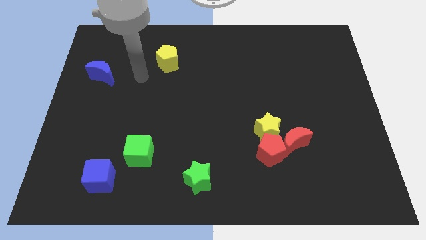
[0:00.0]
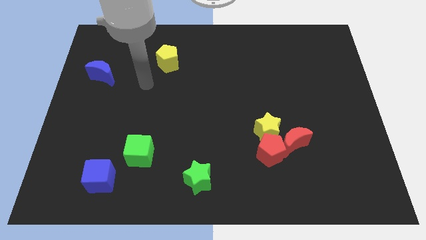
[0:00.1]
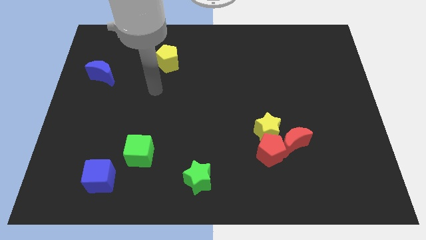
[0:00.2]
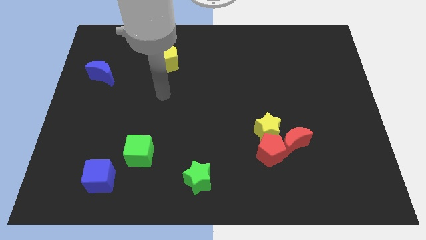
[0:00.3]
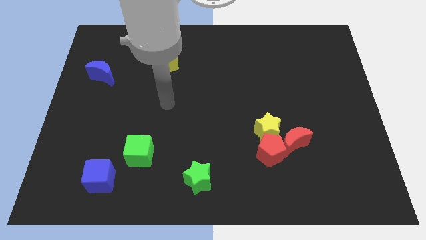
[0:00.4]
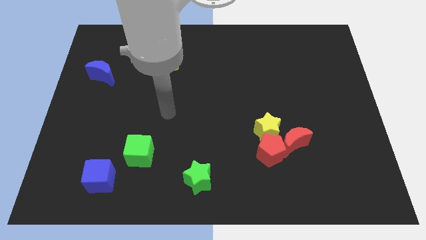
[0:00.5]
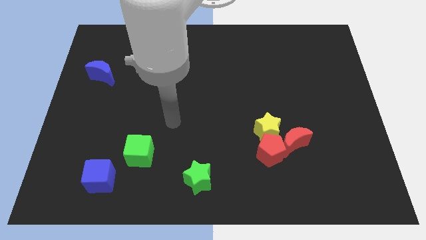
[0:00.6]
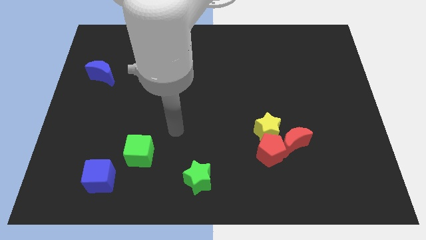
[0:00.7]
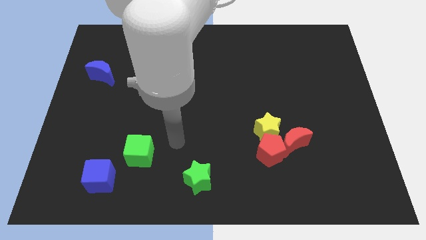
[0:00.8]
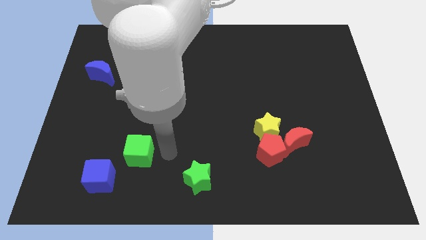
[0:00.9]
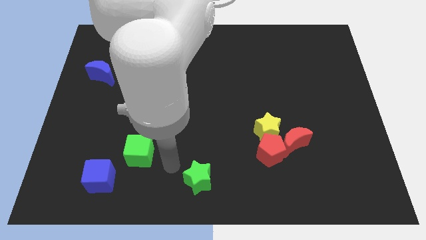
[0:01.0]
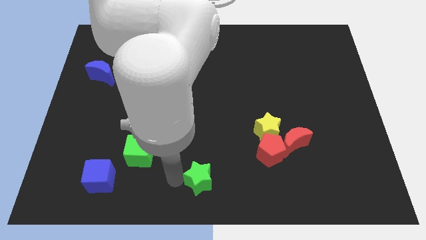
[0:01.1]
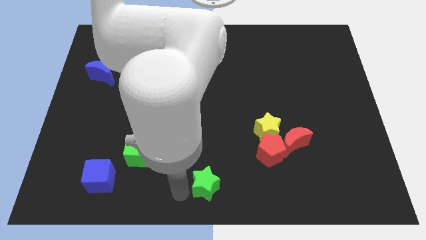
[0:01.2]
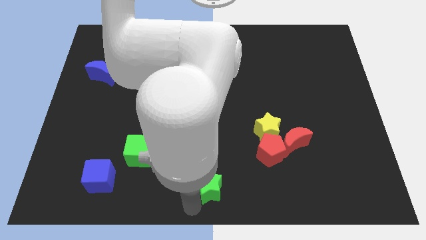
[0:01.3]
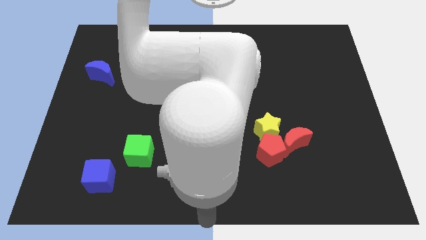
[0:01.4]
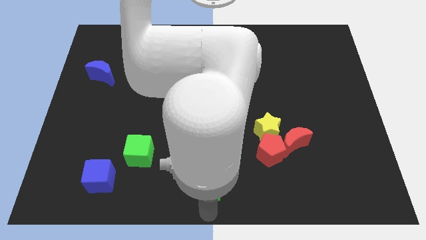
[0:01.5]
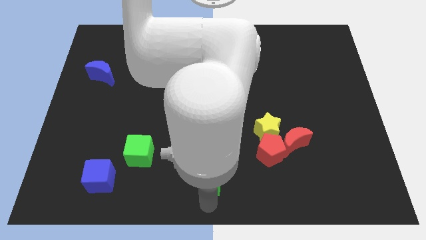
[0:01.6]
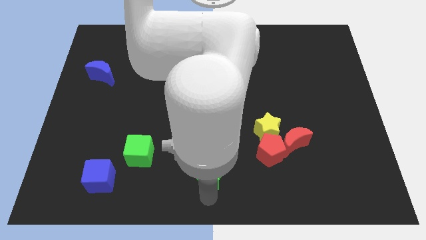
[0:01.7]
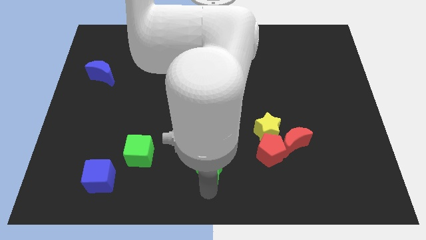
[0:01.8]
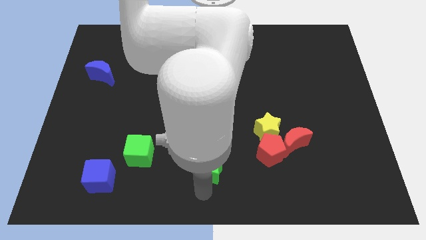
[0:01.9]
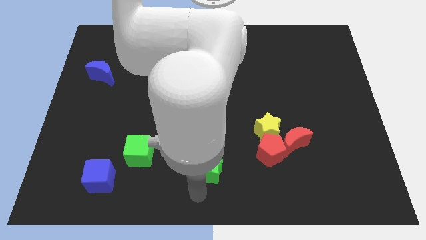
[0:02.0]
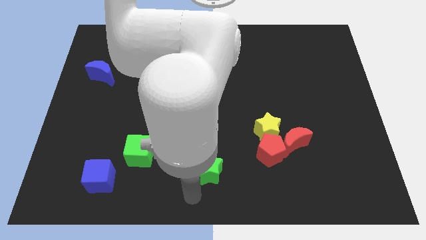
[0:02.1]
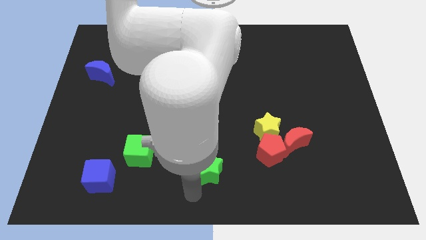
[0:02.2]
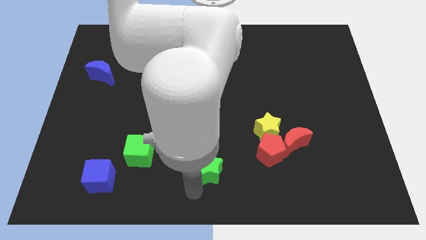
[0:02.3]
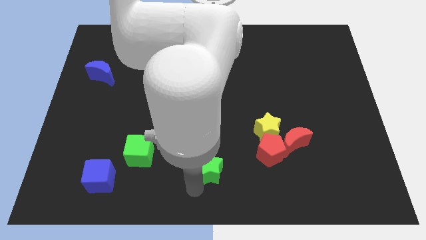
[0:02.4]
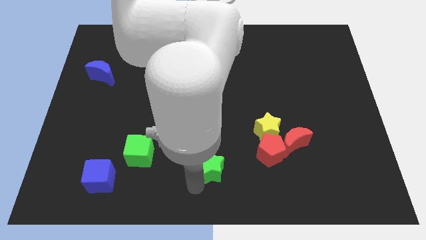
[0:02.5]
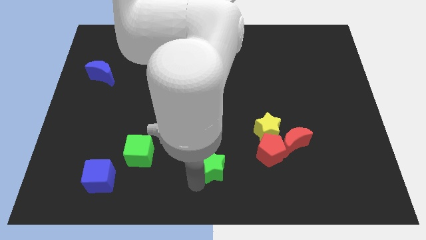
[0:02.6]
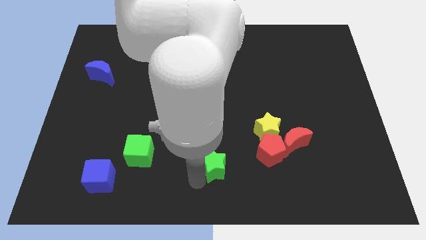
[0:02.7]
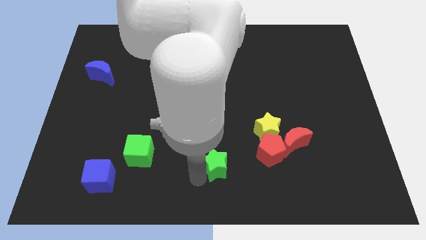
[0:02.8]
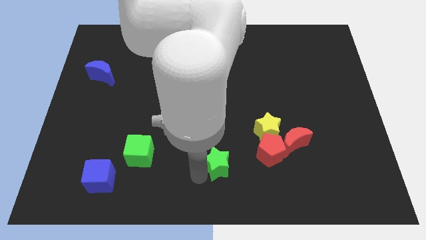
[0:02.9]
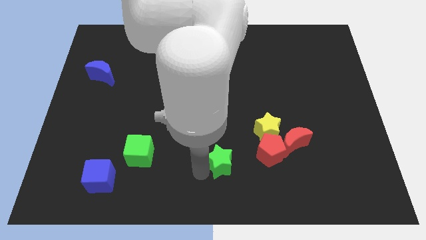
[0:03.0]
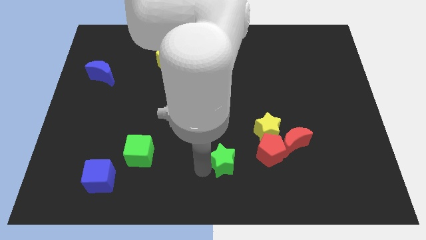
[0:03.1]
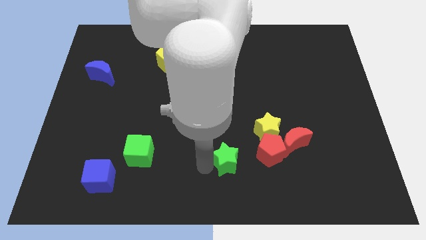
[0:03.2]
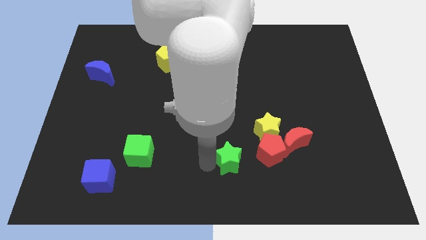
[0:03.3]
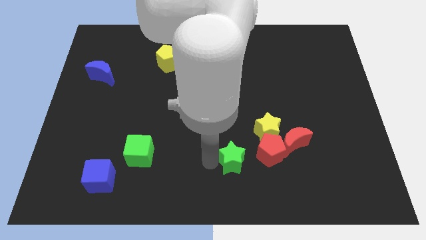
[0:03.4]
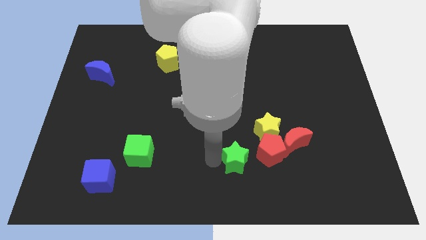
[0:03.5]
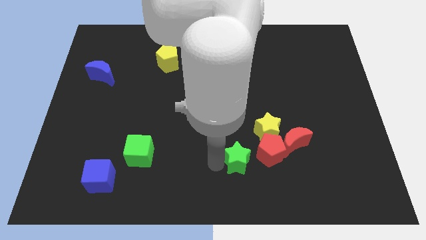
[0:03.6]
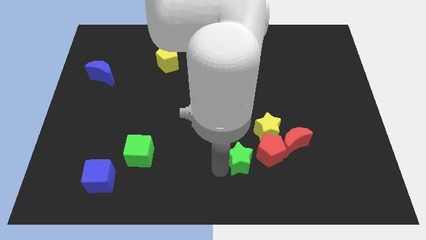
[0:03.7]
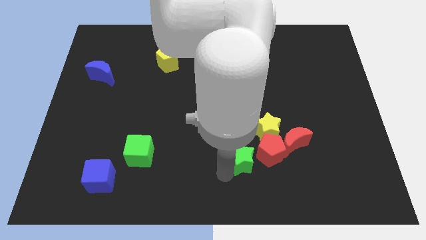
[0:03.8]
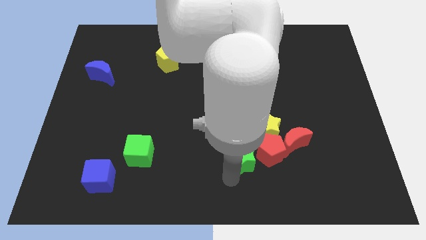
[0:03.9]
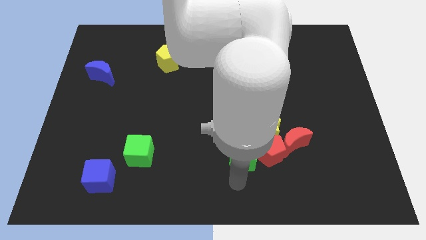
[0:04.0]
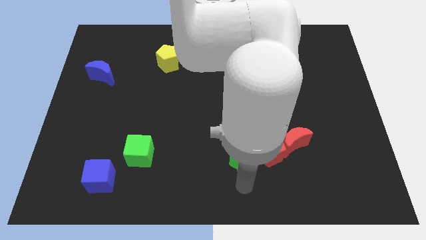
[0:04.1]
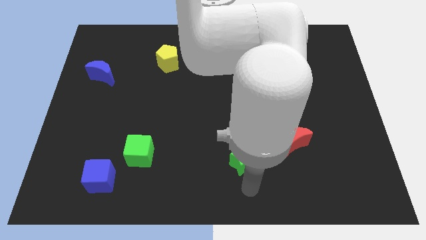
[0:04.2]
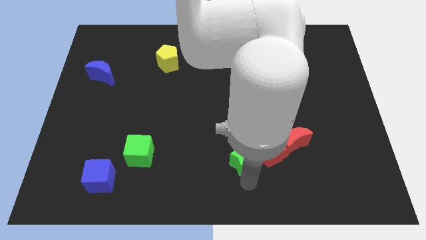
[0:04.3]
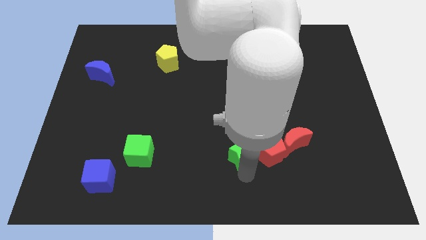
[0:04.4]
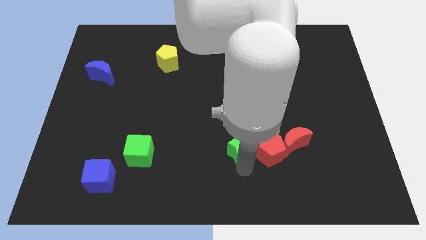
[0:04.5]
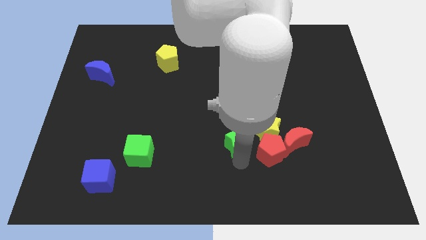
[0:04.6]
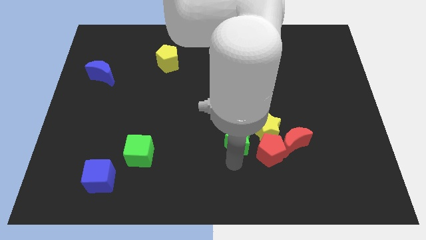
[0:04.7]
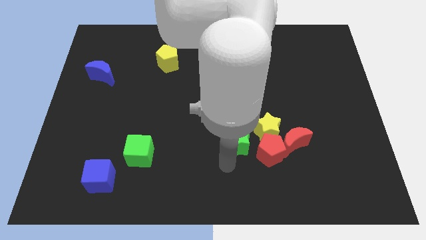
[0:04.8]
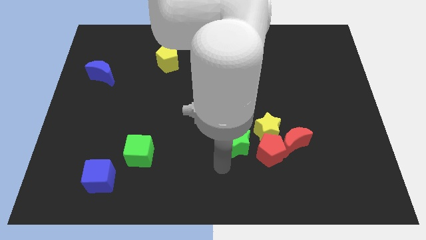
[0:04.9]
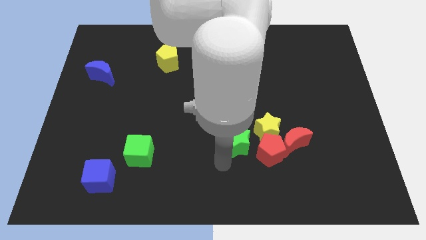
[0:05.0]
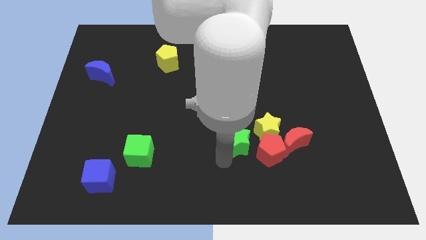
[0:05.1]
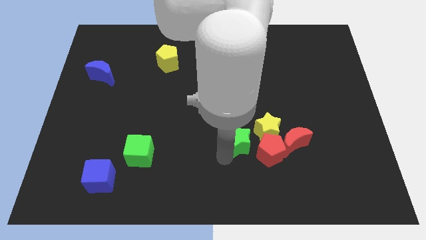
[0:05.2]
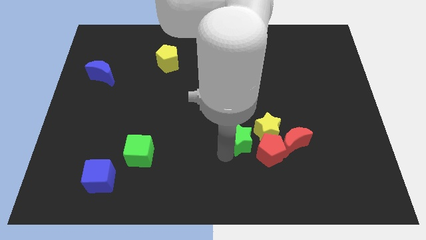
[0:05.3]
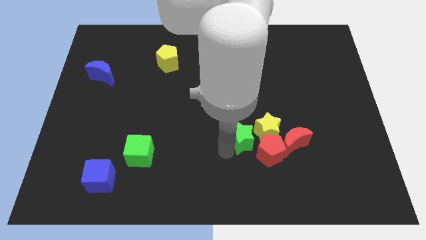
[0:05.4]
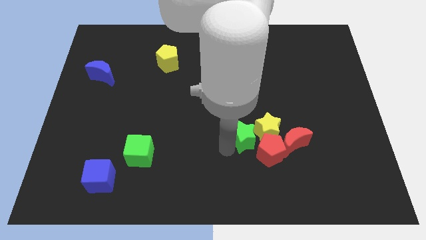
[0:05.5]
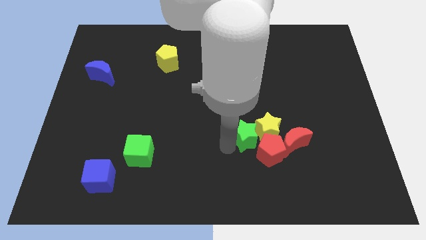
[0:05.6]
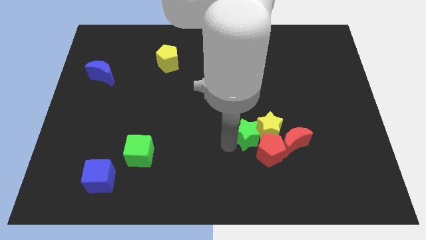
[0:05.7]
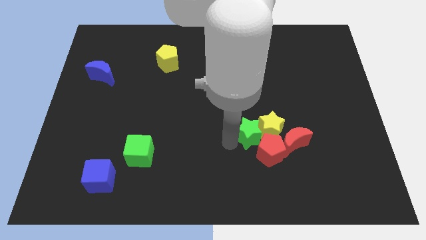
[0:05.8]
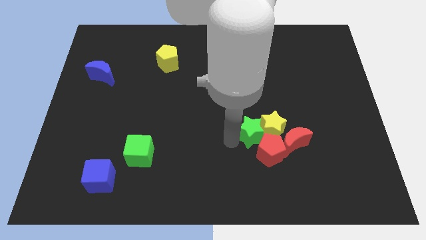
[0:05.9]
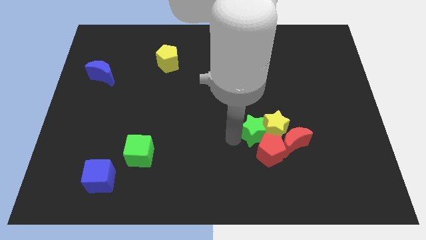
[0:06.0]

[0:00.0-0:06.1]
slide the green star diagonally up and to the left of the red moon

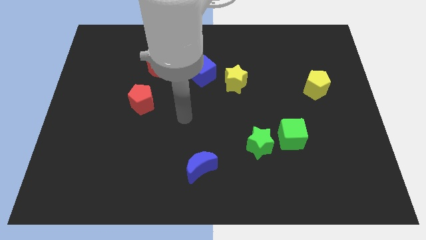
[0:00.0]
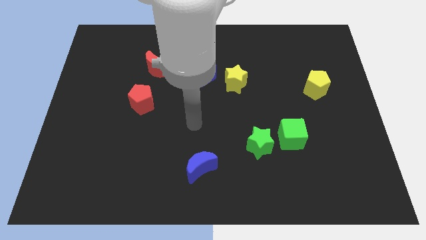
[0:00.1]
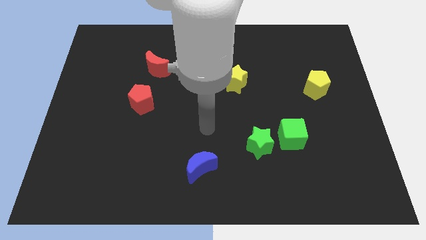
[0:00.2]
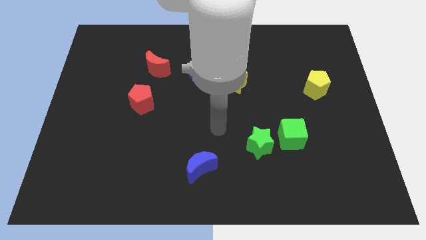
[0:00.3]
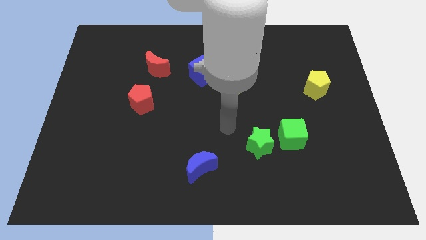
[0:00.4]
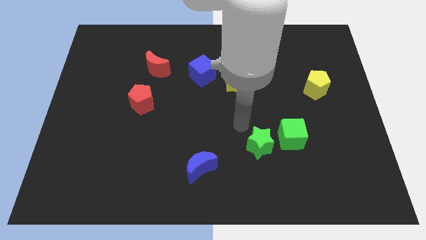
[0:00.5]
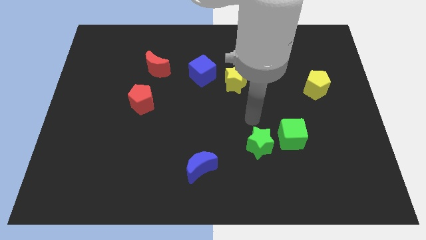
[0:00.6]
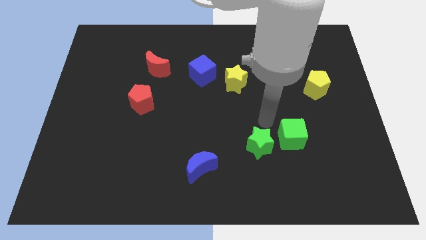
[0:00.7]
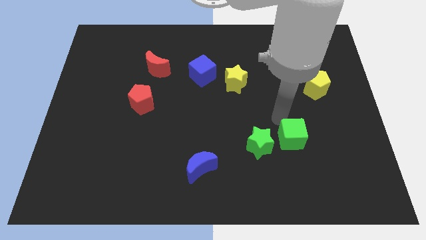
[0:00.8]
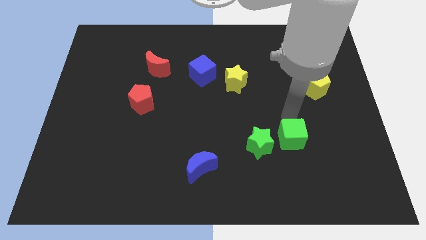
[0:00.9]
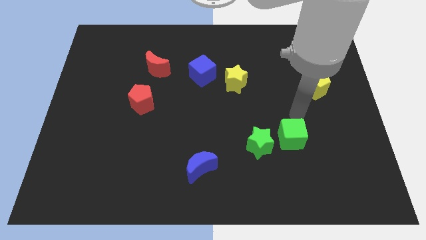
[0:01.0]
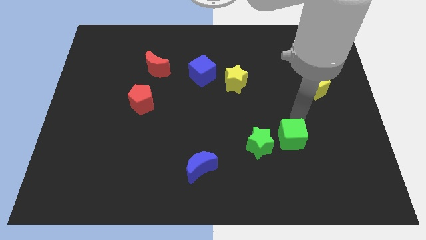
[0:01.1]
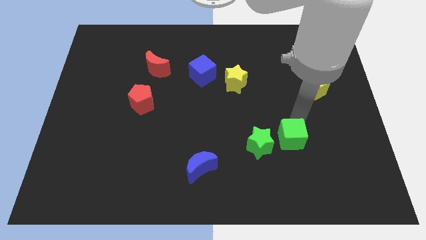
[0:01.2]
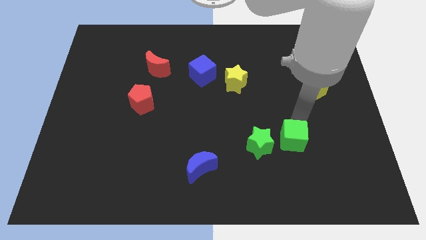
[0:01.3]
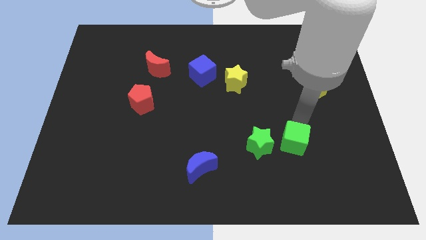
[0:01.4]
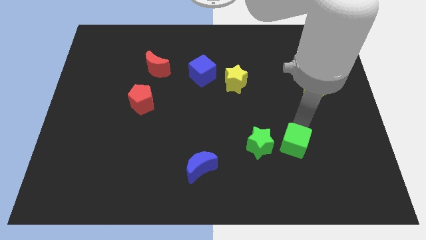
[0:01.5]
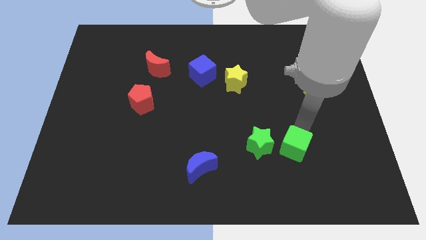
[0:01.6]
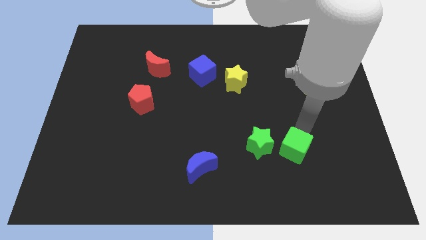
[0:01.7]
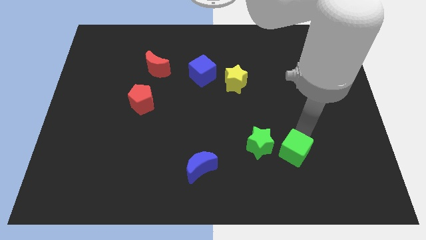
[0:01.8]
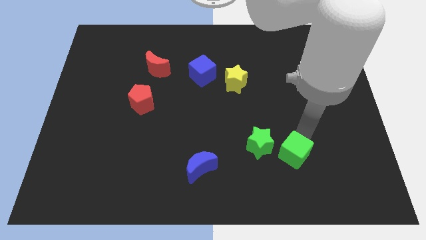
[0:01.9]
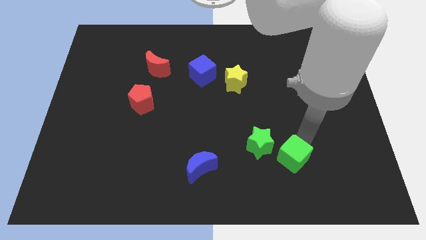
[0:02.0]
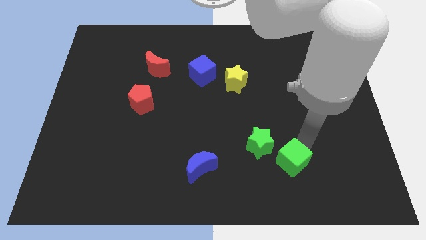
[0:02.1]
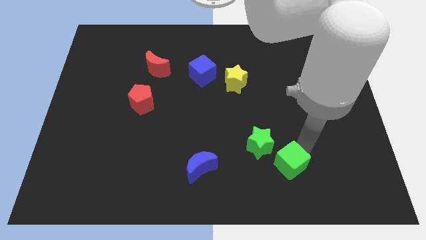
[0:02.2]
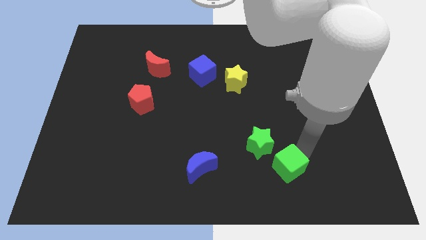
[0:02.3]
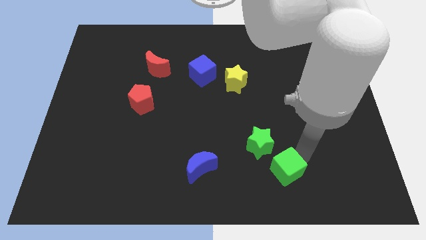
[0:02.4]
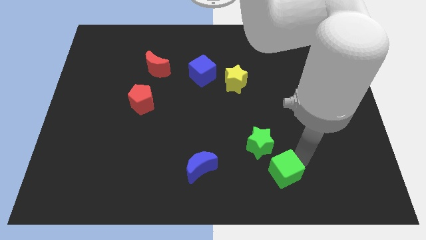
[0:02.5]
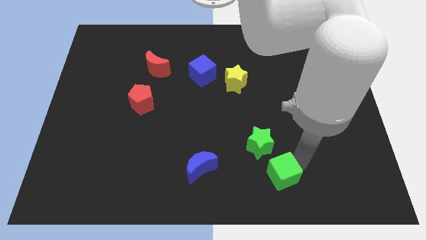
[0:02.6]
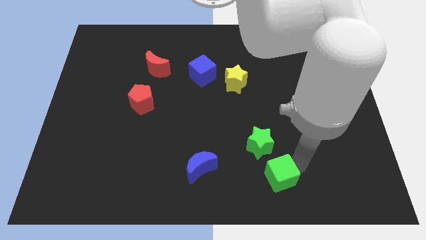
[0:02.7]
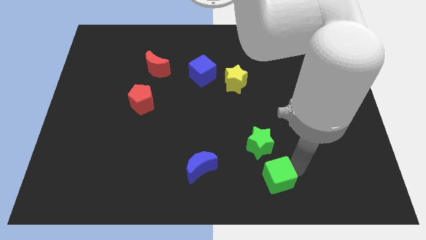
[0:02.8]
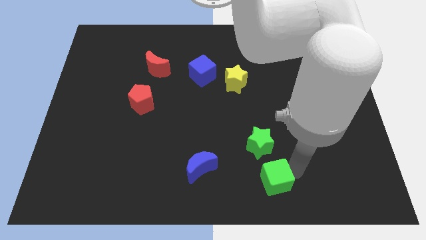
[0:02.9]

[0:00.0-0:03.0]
push the green cube to the right of the blue moon
